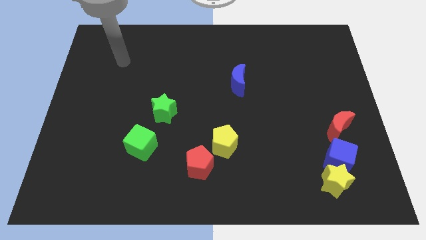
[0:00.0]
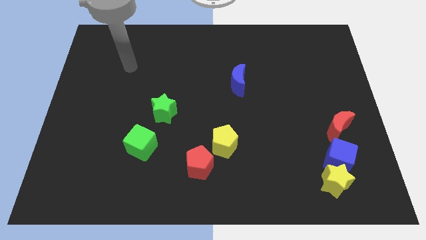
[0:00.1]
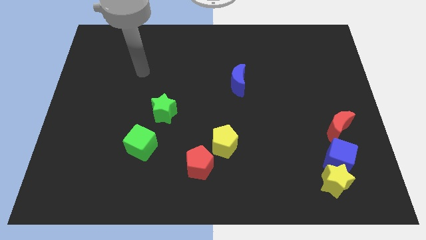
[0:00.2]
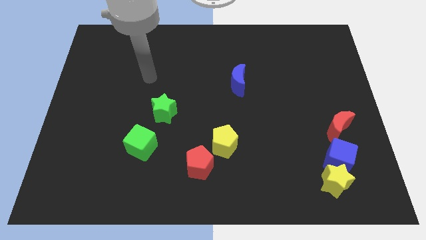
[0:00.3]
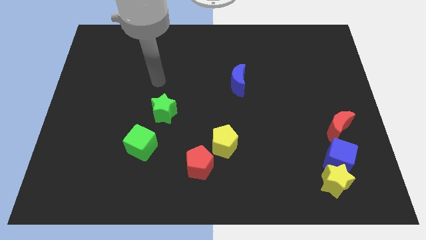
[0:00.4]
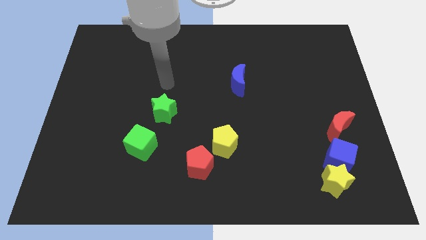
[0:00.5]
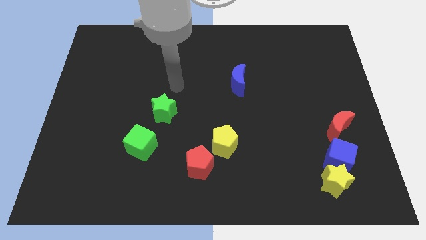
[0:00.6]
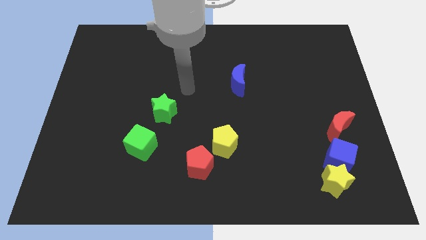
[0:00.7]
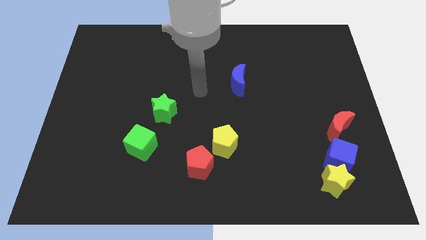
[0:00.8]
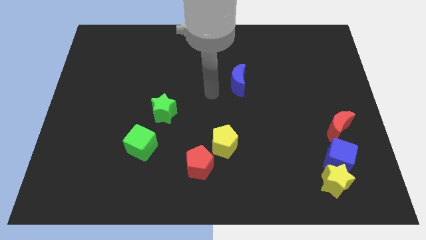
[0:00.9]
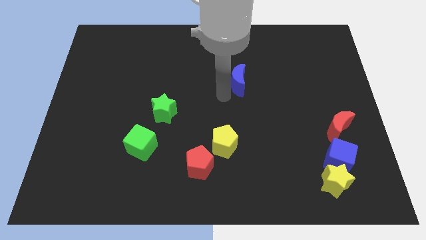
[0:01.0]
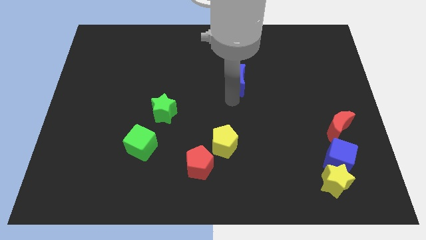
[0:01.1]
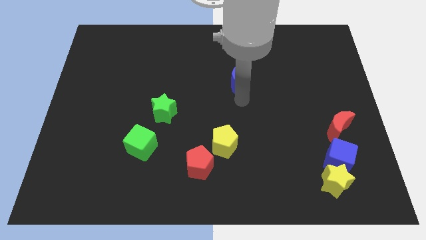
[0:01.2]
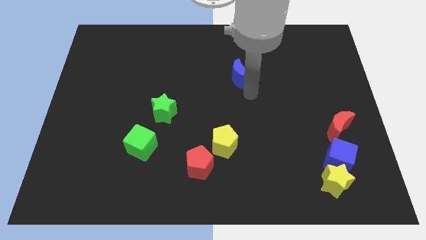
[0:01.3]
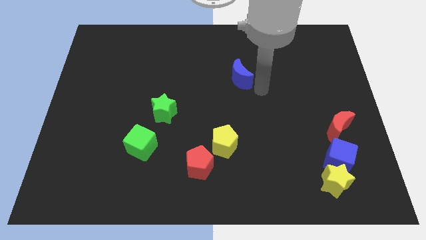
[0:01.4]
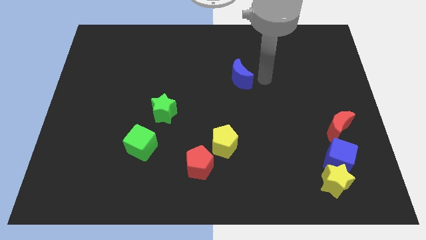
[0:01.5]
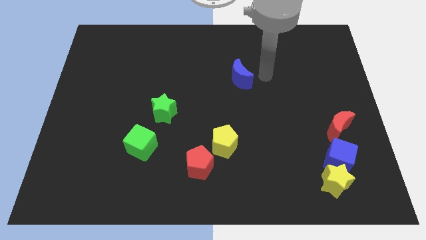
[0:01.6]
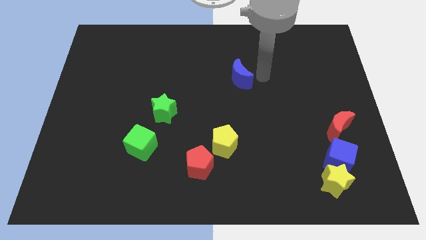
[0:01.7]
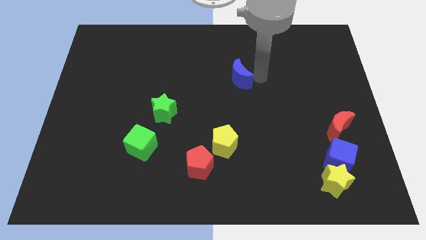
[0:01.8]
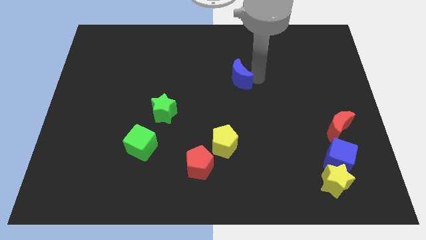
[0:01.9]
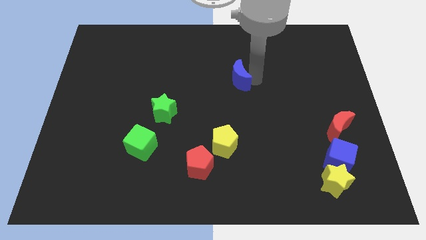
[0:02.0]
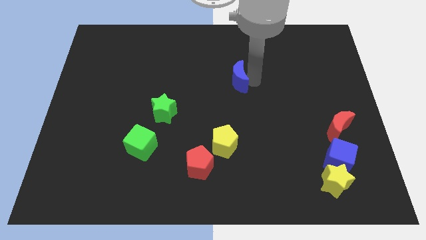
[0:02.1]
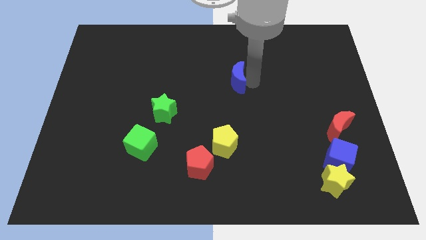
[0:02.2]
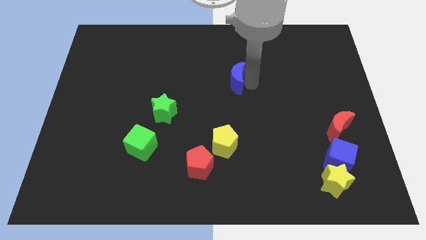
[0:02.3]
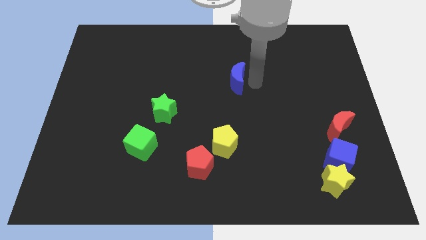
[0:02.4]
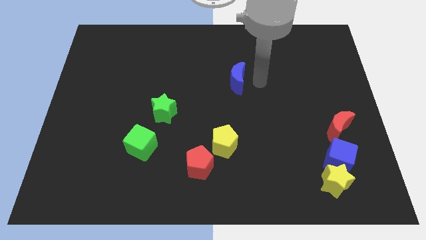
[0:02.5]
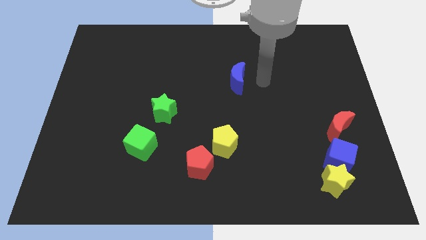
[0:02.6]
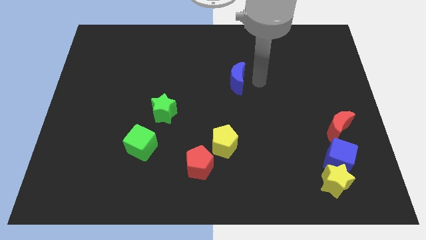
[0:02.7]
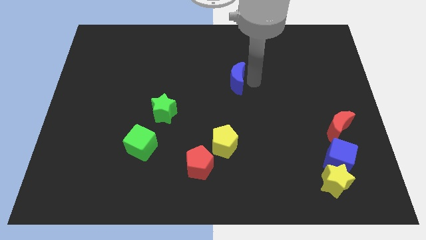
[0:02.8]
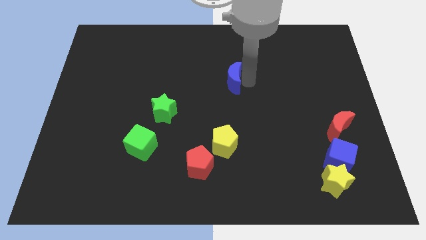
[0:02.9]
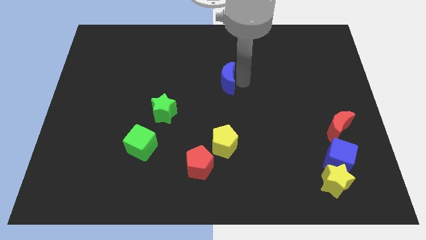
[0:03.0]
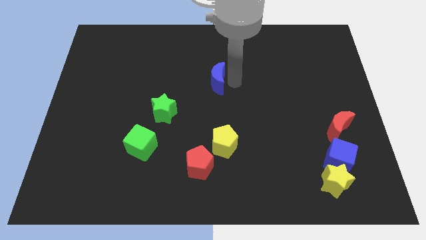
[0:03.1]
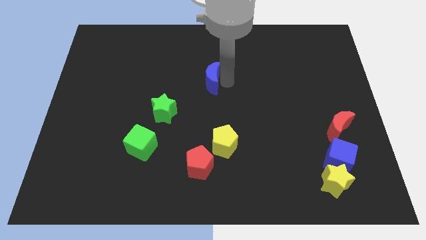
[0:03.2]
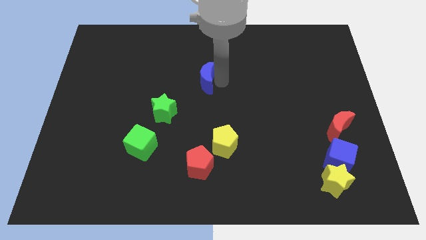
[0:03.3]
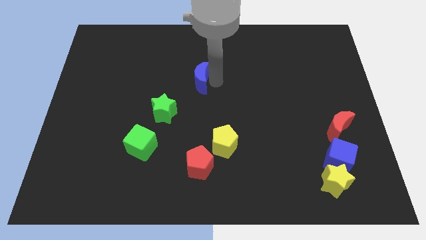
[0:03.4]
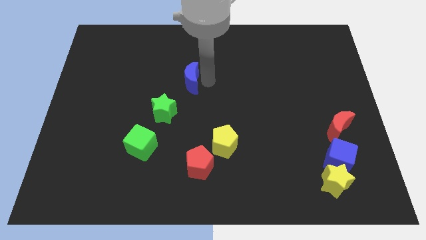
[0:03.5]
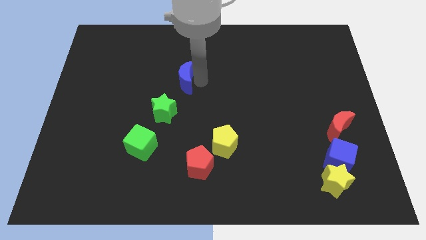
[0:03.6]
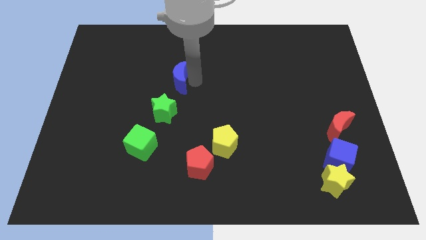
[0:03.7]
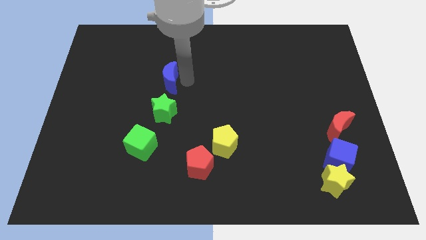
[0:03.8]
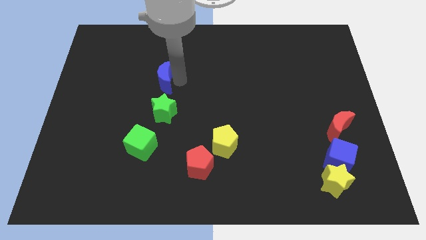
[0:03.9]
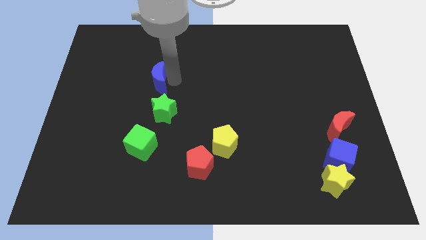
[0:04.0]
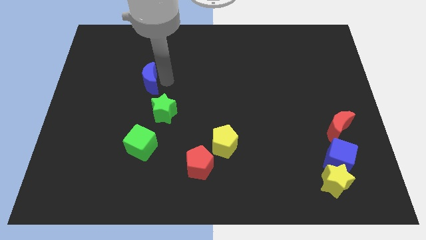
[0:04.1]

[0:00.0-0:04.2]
slide the blue moon to the left

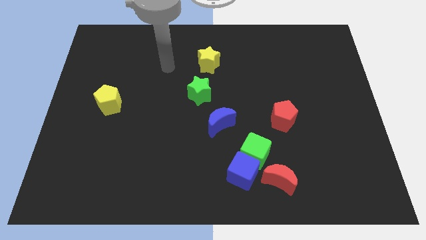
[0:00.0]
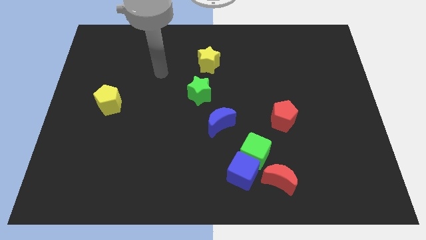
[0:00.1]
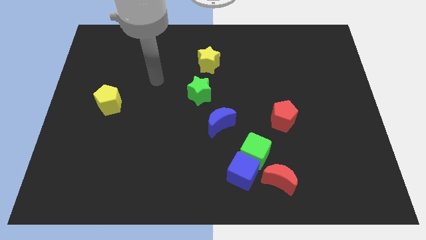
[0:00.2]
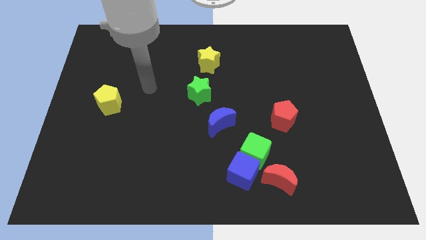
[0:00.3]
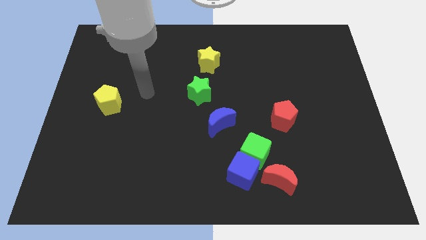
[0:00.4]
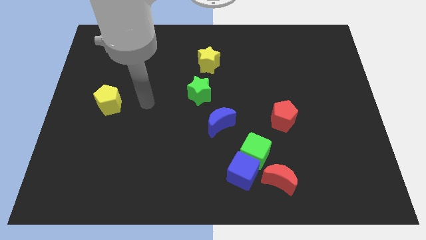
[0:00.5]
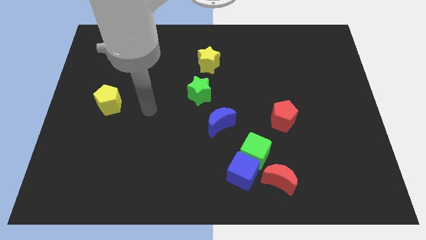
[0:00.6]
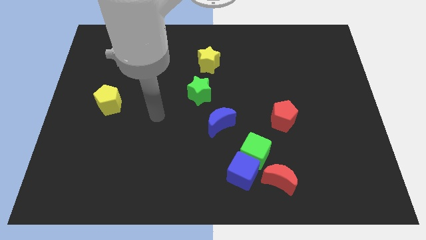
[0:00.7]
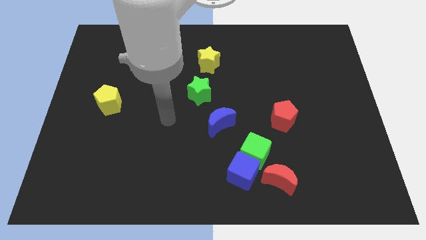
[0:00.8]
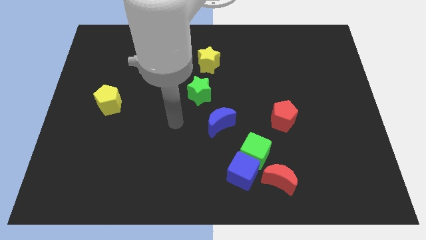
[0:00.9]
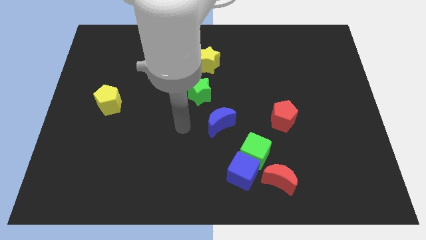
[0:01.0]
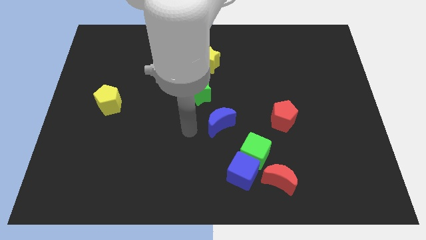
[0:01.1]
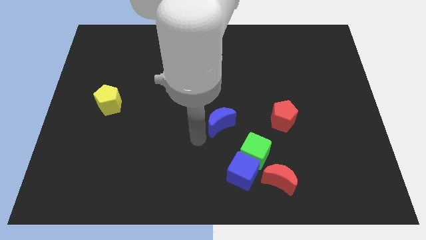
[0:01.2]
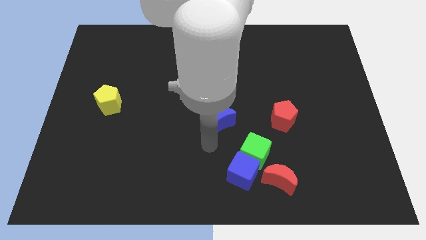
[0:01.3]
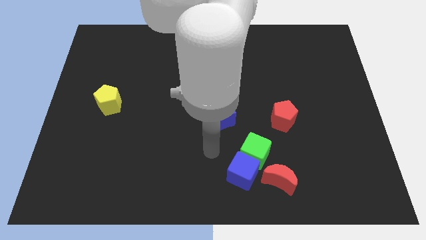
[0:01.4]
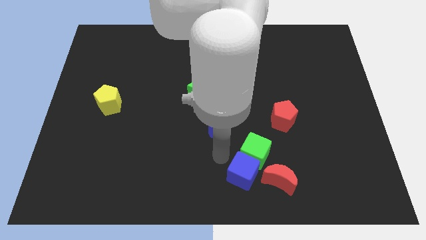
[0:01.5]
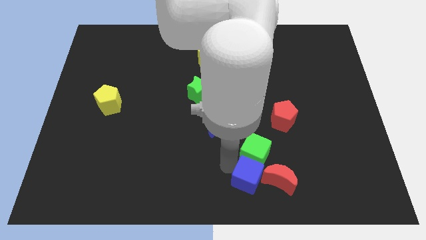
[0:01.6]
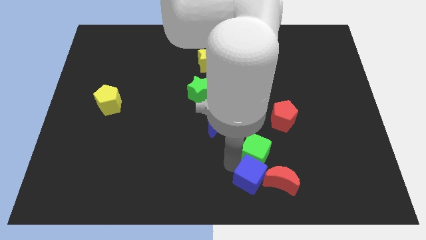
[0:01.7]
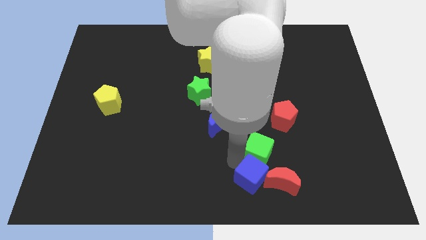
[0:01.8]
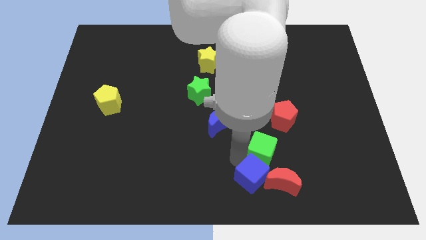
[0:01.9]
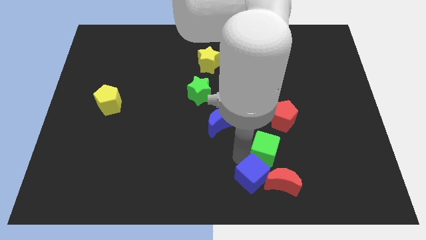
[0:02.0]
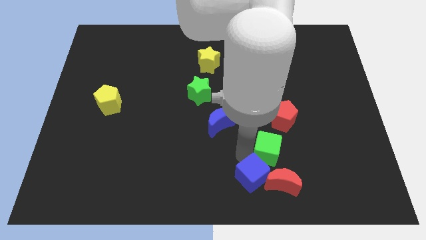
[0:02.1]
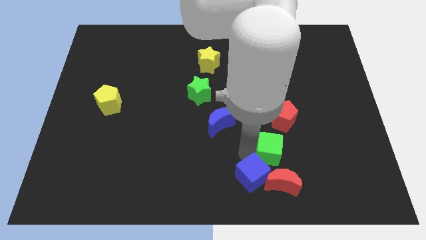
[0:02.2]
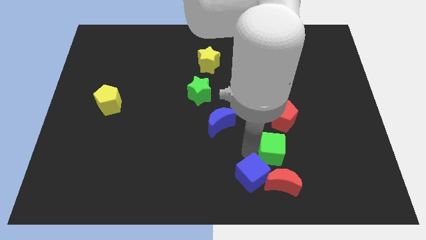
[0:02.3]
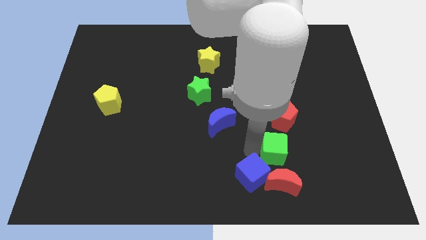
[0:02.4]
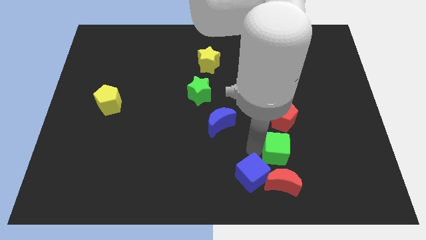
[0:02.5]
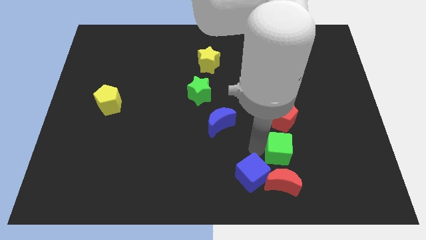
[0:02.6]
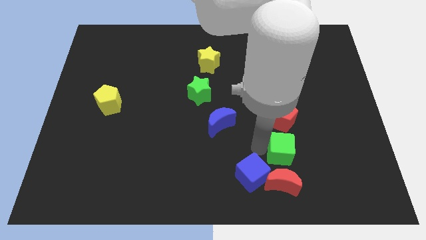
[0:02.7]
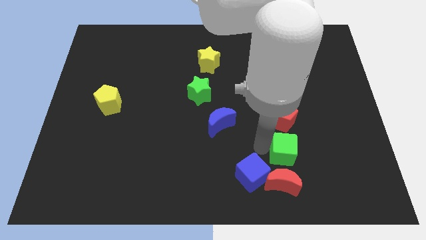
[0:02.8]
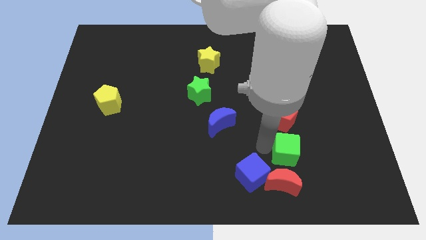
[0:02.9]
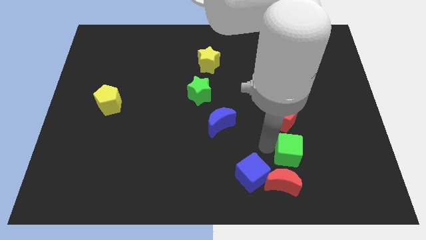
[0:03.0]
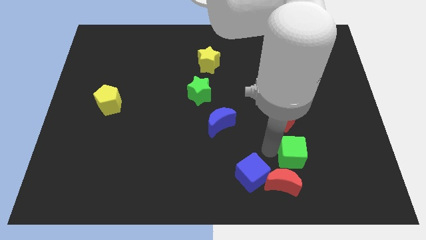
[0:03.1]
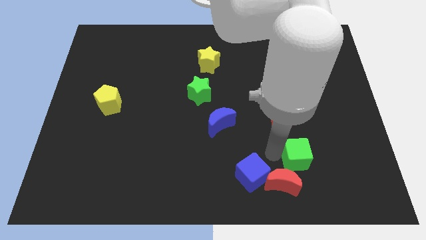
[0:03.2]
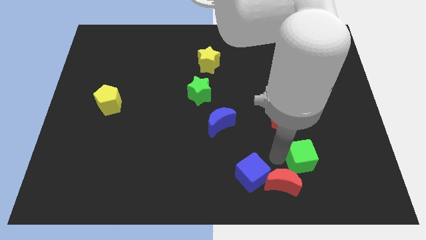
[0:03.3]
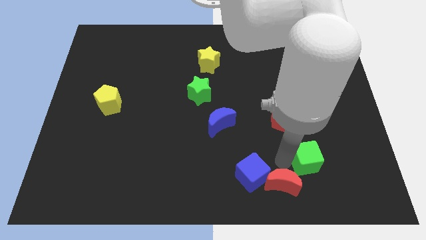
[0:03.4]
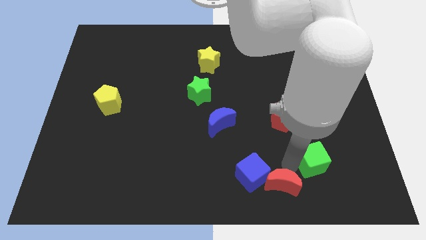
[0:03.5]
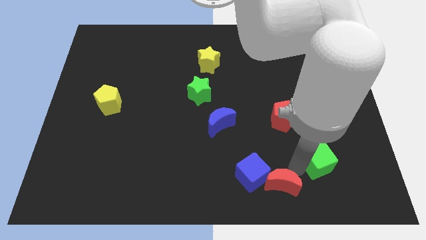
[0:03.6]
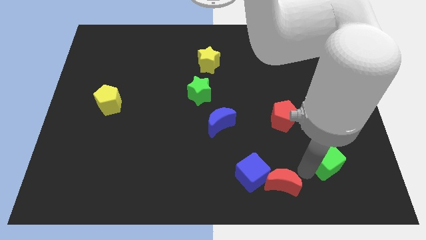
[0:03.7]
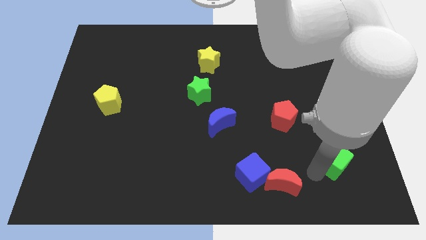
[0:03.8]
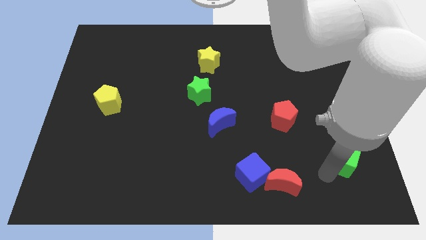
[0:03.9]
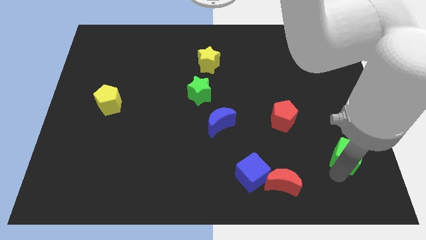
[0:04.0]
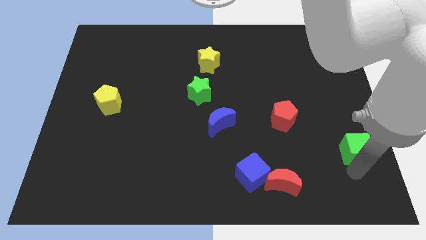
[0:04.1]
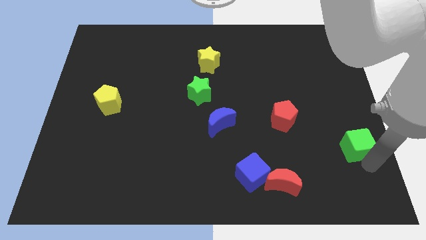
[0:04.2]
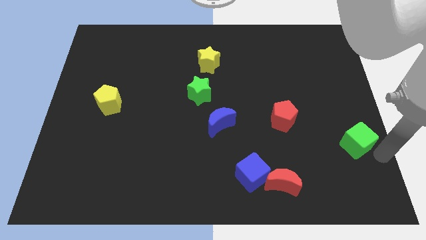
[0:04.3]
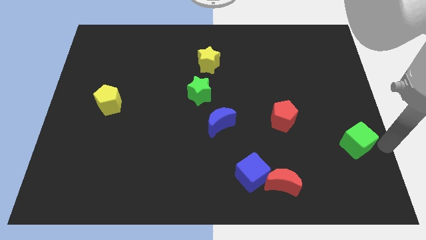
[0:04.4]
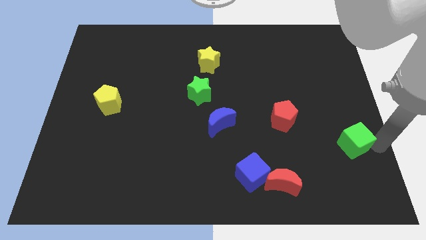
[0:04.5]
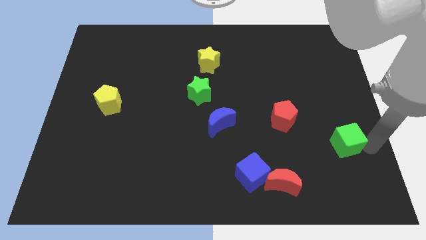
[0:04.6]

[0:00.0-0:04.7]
slide the green cube slightly upwards and then to the right
